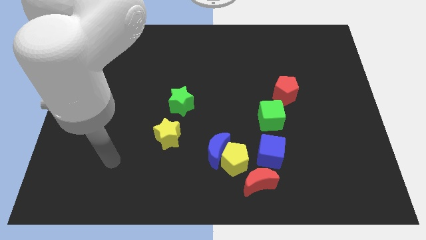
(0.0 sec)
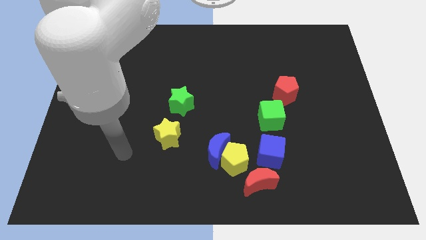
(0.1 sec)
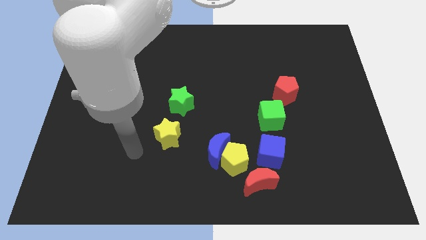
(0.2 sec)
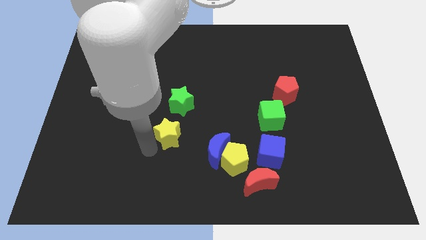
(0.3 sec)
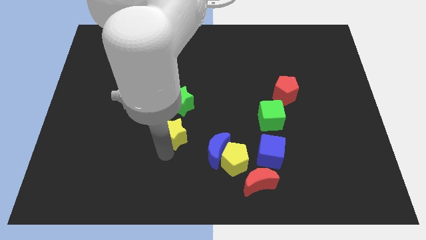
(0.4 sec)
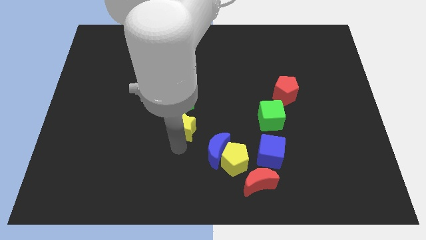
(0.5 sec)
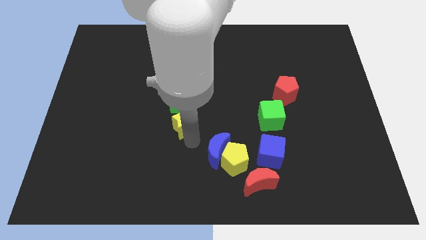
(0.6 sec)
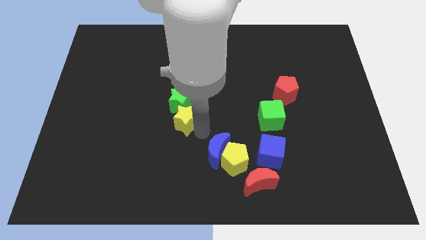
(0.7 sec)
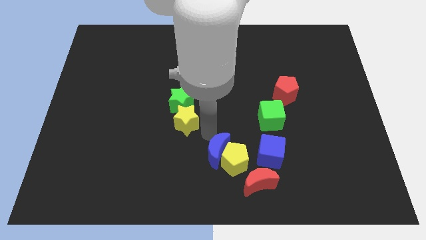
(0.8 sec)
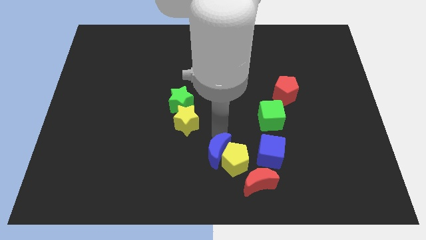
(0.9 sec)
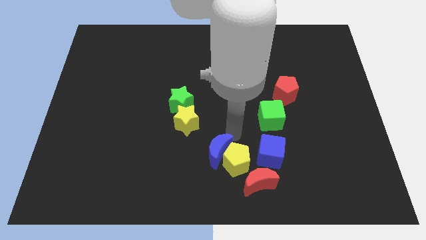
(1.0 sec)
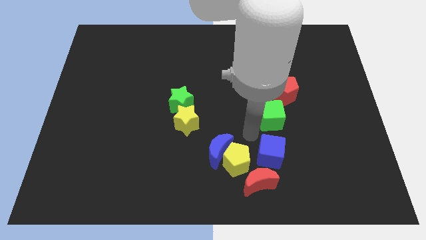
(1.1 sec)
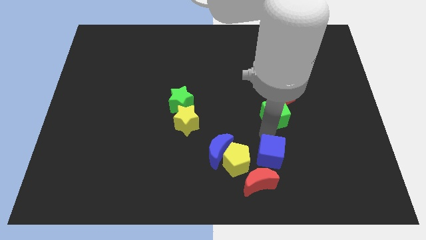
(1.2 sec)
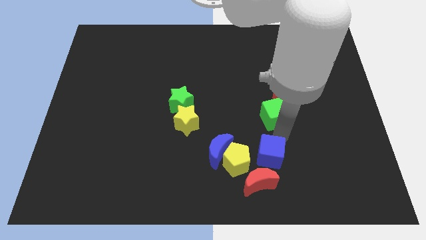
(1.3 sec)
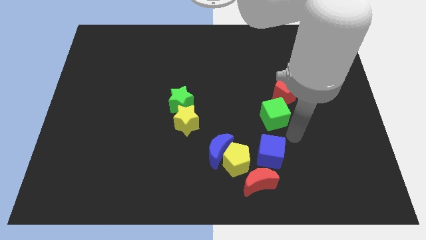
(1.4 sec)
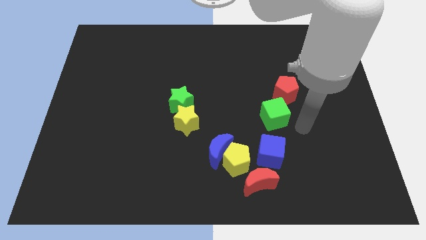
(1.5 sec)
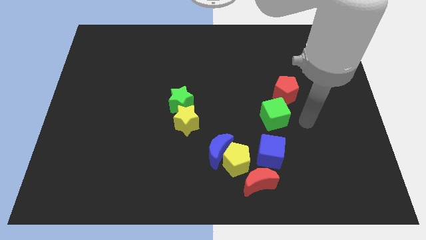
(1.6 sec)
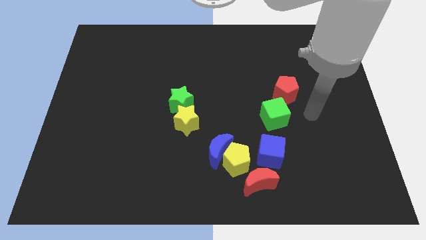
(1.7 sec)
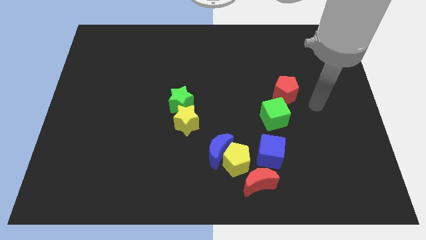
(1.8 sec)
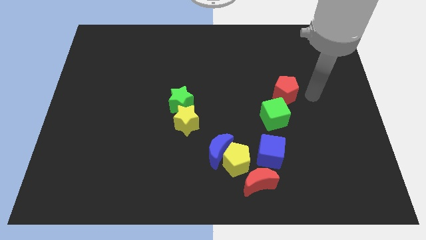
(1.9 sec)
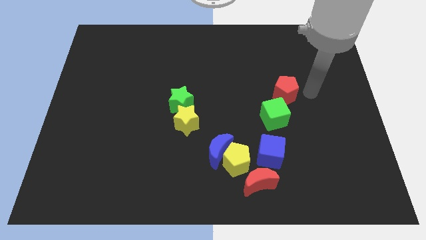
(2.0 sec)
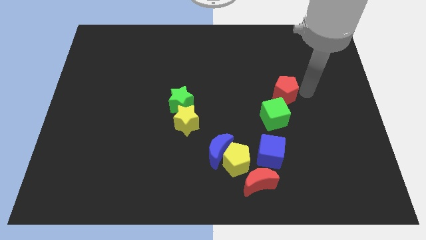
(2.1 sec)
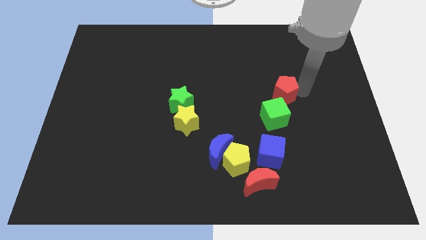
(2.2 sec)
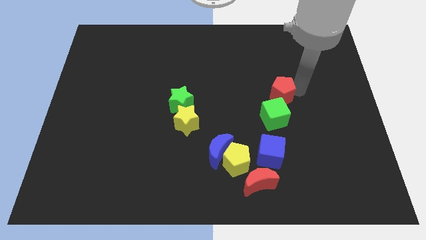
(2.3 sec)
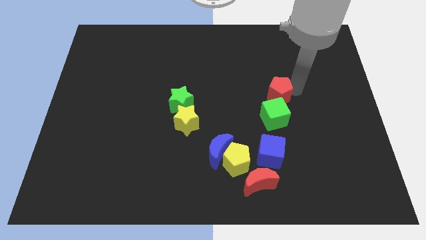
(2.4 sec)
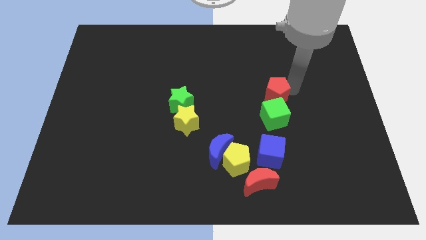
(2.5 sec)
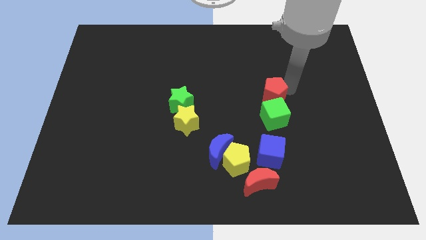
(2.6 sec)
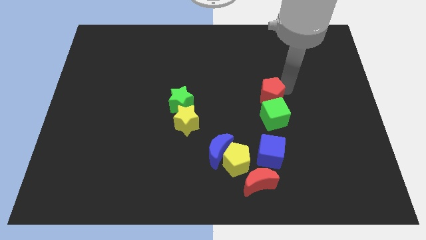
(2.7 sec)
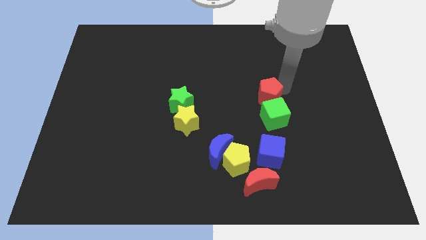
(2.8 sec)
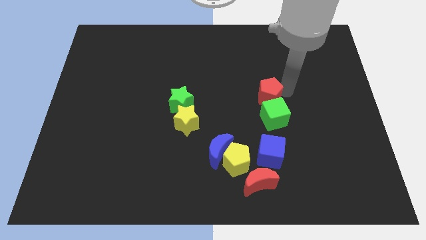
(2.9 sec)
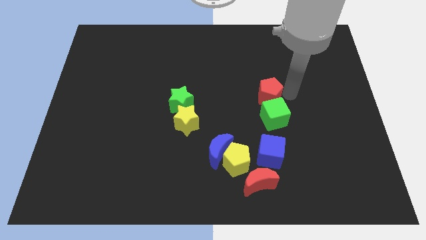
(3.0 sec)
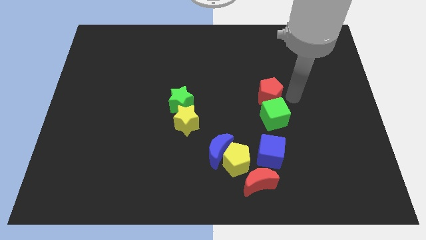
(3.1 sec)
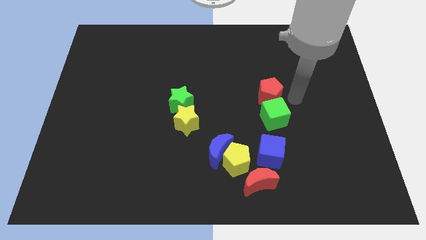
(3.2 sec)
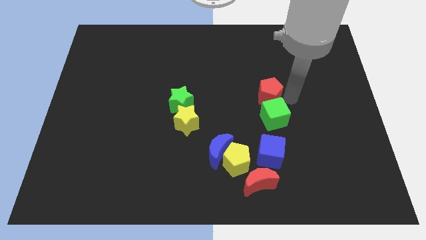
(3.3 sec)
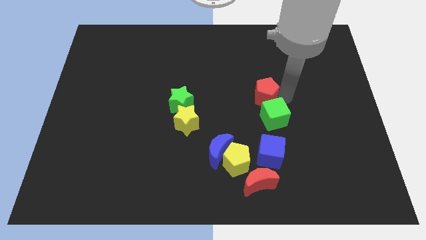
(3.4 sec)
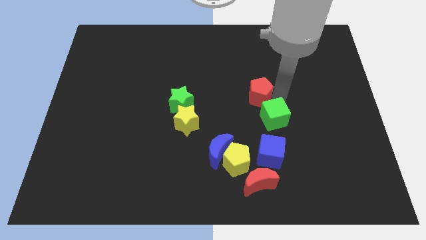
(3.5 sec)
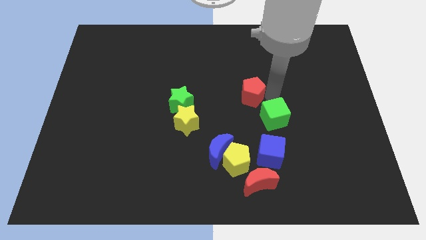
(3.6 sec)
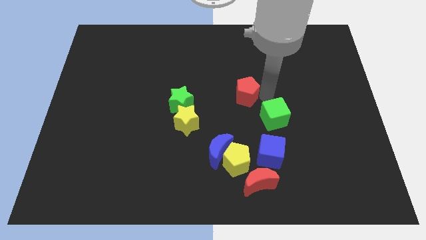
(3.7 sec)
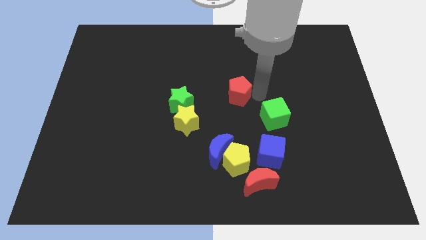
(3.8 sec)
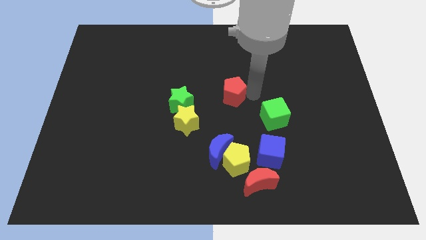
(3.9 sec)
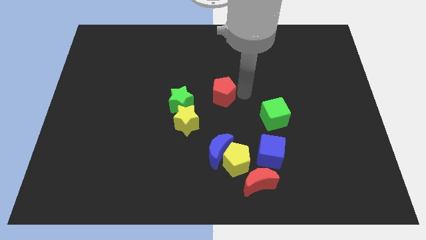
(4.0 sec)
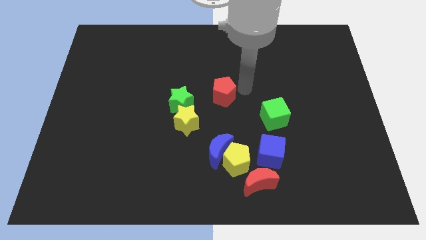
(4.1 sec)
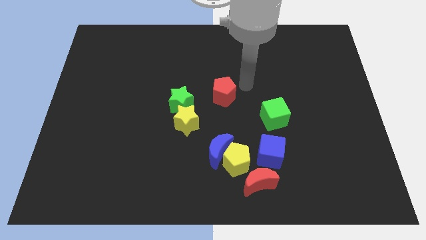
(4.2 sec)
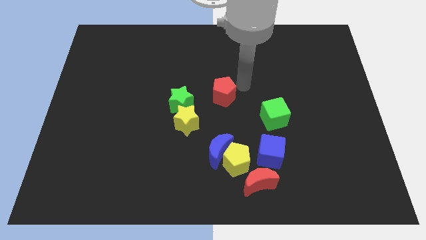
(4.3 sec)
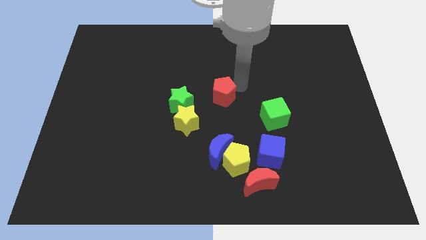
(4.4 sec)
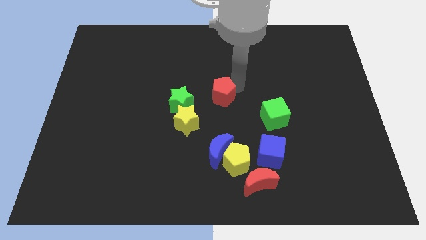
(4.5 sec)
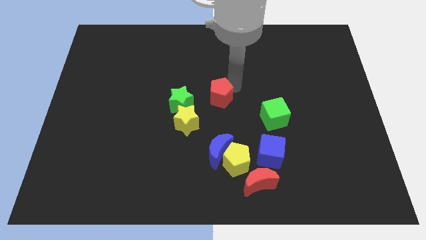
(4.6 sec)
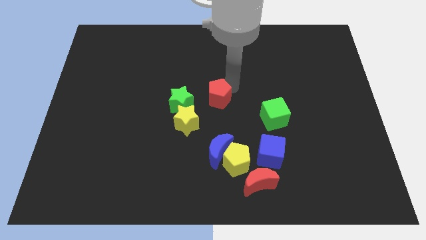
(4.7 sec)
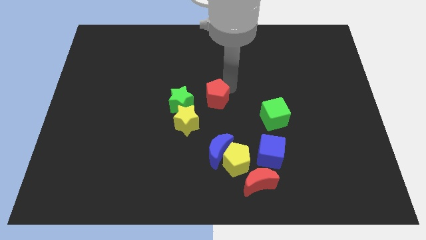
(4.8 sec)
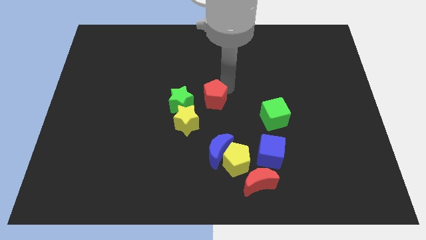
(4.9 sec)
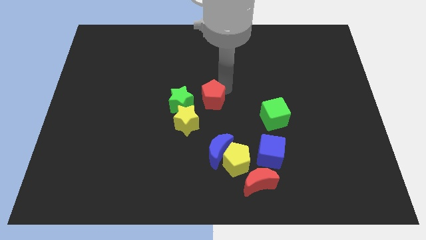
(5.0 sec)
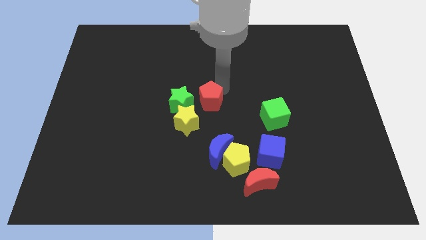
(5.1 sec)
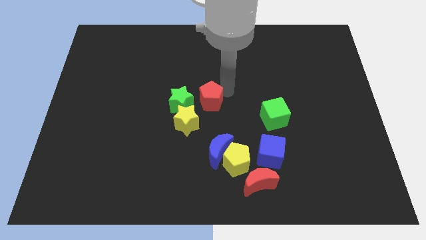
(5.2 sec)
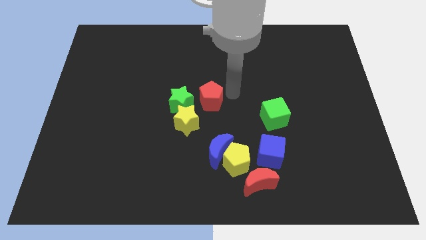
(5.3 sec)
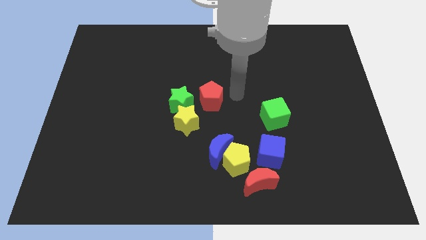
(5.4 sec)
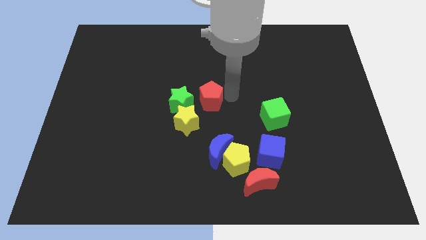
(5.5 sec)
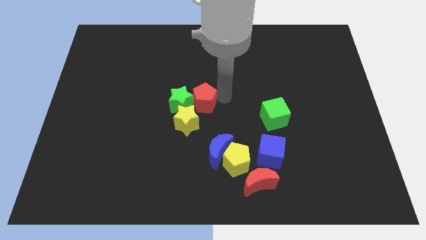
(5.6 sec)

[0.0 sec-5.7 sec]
push the red pentagon towards the green star

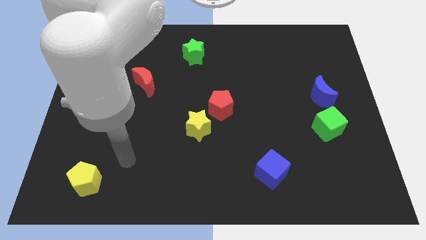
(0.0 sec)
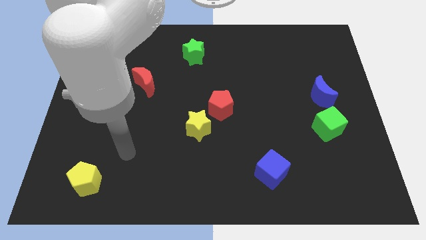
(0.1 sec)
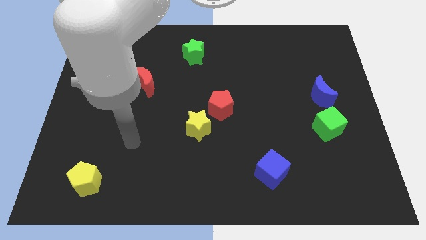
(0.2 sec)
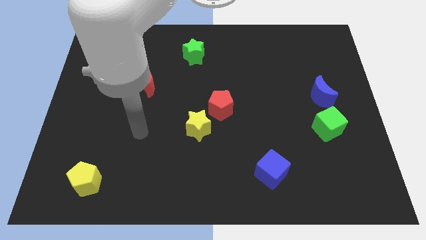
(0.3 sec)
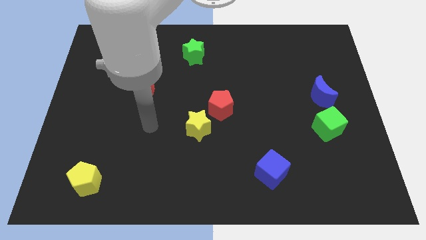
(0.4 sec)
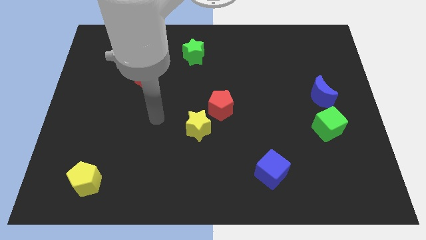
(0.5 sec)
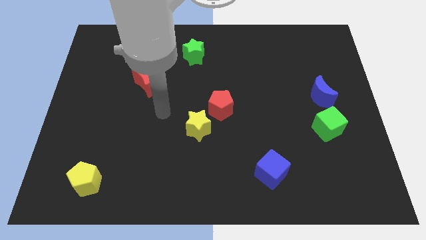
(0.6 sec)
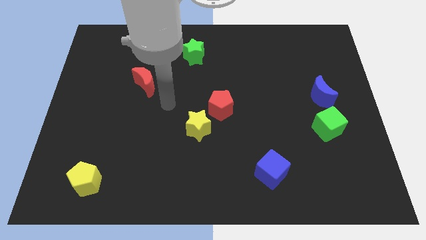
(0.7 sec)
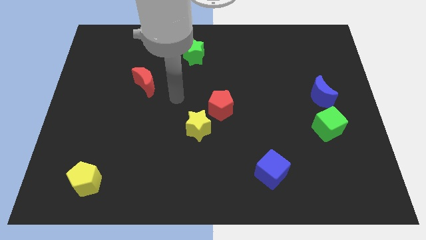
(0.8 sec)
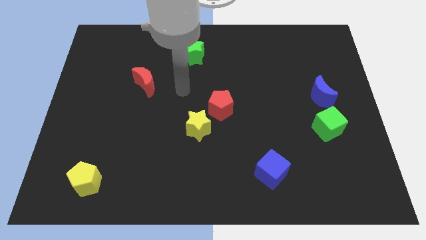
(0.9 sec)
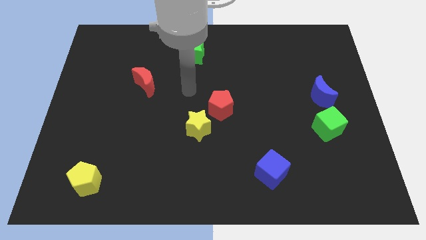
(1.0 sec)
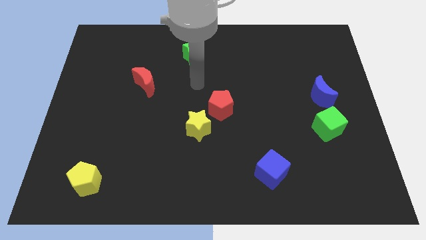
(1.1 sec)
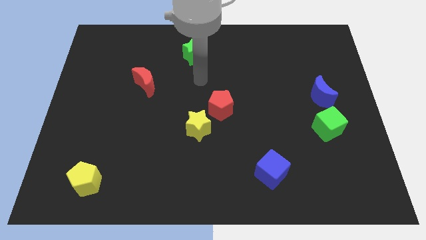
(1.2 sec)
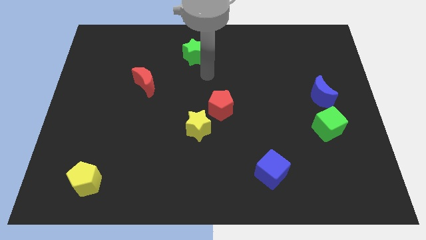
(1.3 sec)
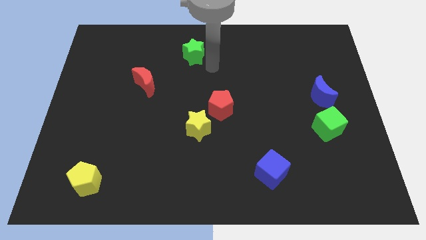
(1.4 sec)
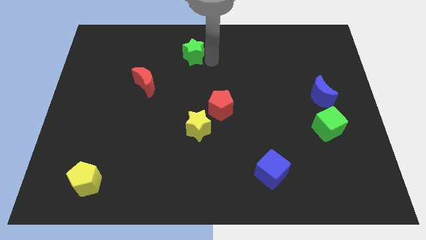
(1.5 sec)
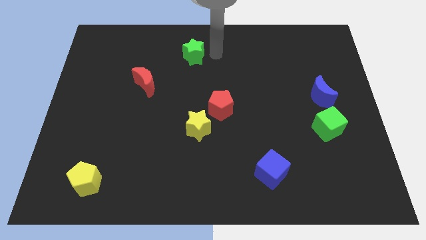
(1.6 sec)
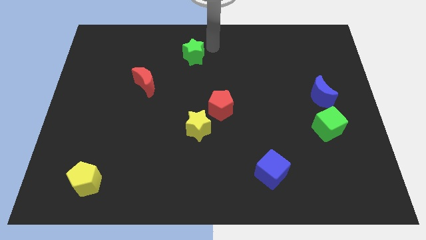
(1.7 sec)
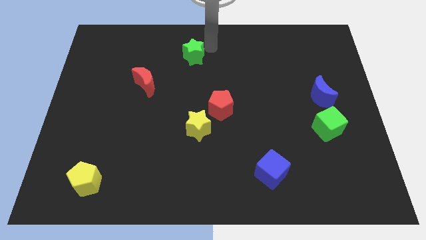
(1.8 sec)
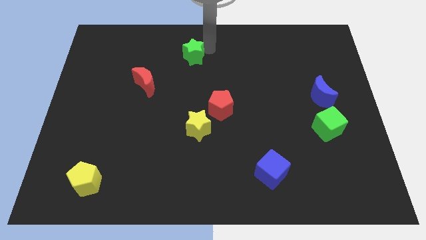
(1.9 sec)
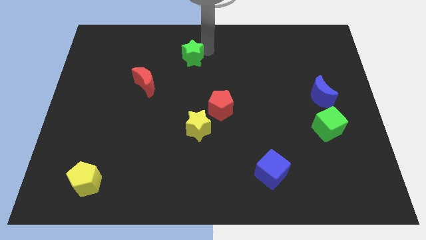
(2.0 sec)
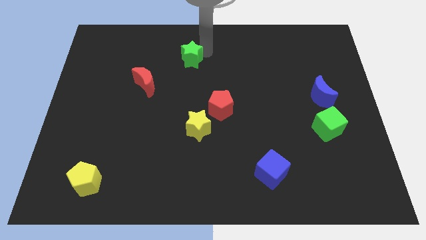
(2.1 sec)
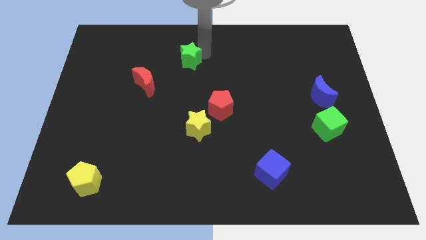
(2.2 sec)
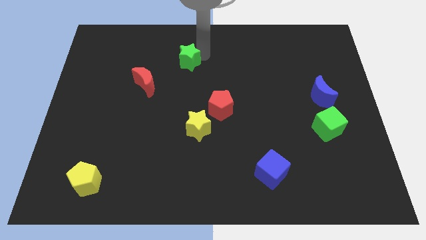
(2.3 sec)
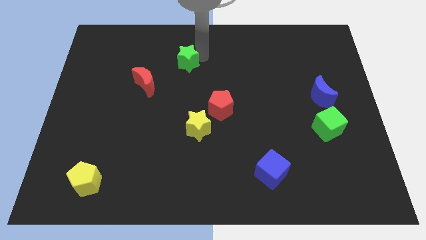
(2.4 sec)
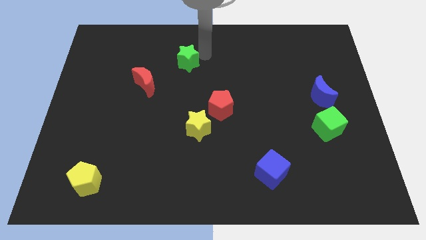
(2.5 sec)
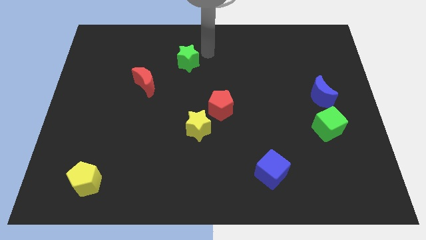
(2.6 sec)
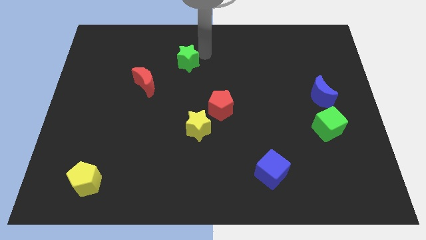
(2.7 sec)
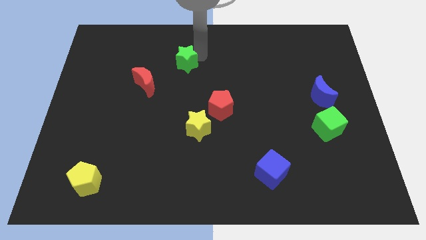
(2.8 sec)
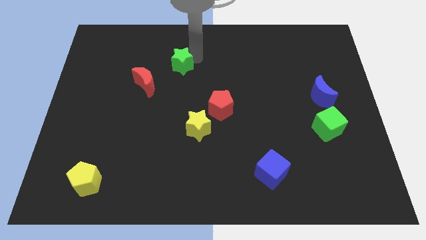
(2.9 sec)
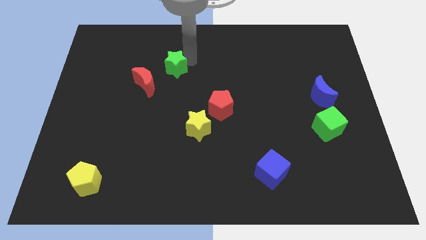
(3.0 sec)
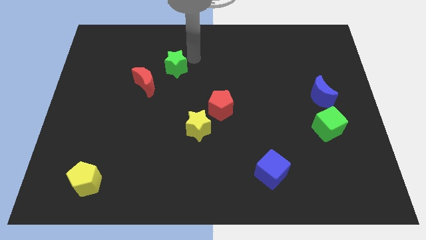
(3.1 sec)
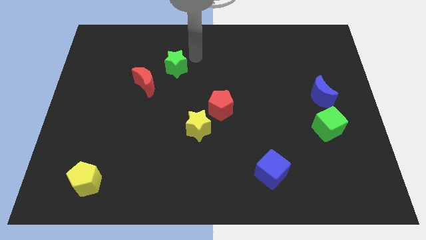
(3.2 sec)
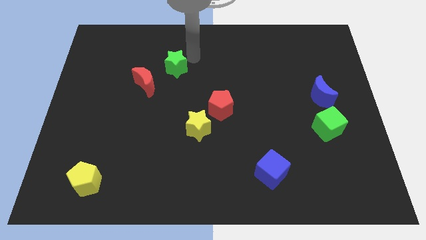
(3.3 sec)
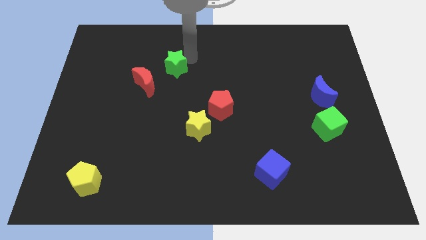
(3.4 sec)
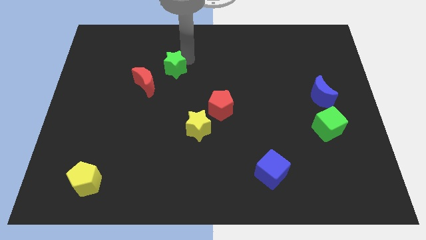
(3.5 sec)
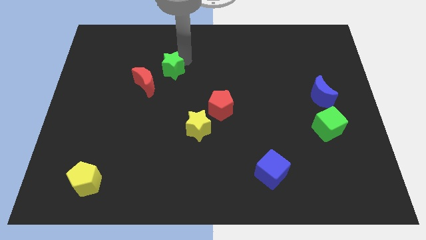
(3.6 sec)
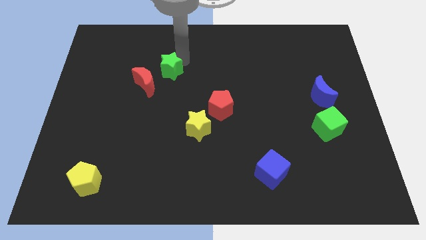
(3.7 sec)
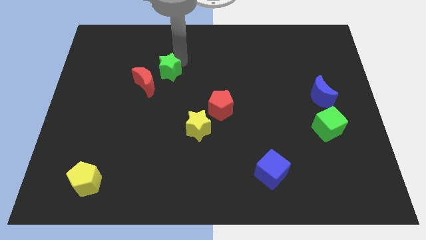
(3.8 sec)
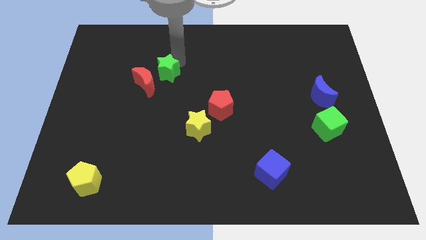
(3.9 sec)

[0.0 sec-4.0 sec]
put the green star next to the red moon
